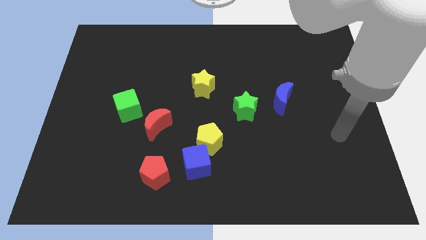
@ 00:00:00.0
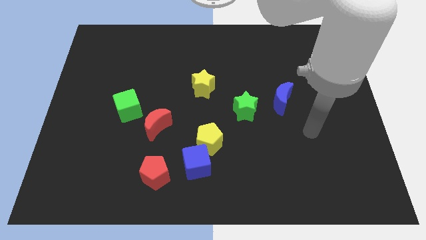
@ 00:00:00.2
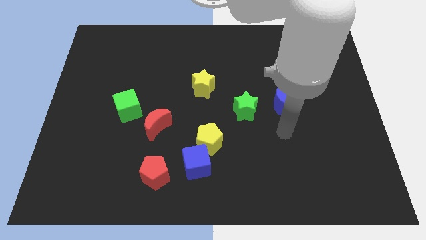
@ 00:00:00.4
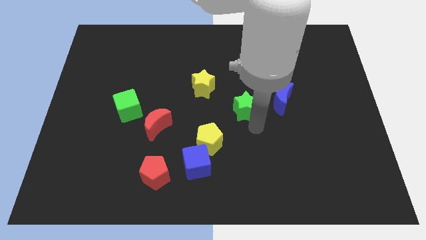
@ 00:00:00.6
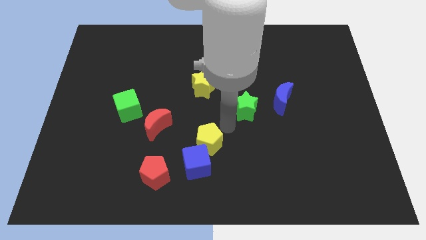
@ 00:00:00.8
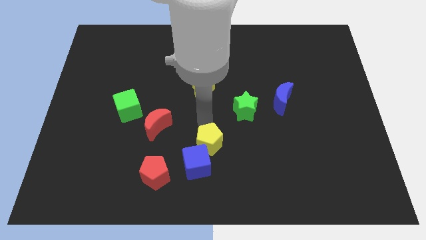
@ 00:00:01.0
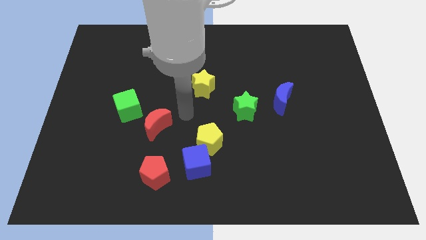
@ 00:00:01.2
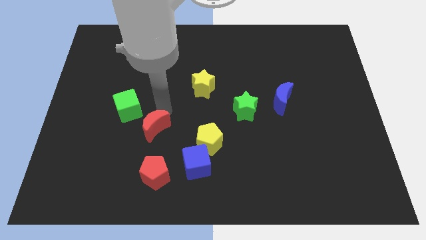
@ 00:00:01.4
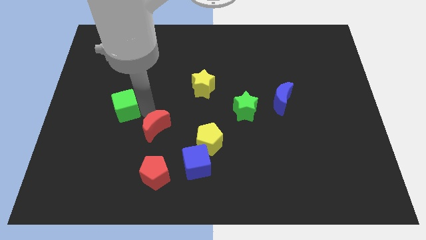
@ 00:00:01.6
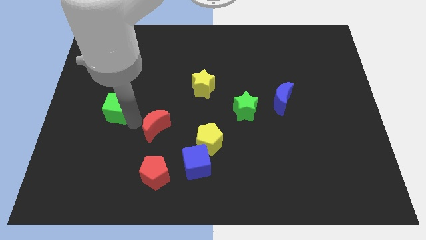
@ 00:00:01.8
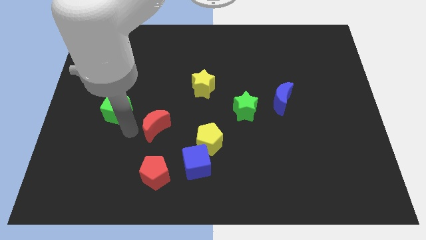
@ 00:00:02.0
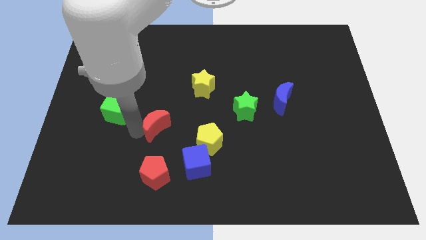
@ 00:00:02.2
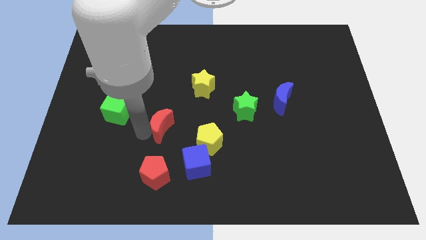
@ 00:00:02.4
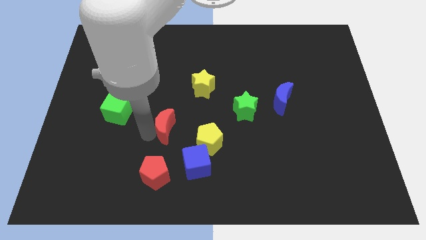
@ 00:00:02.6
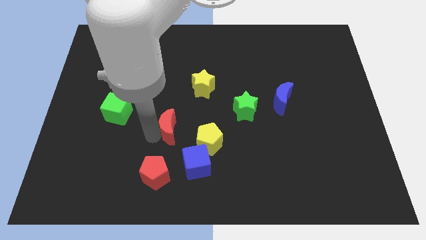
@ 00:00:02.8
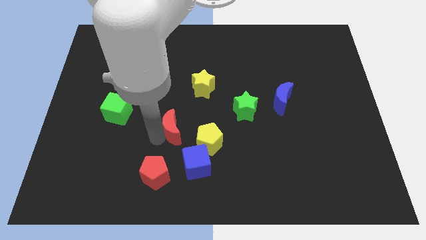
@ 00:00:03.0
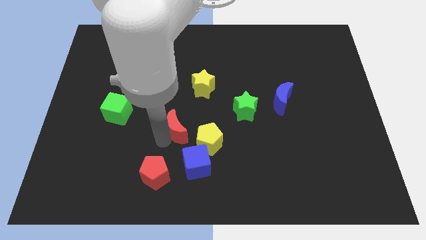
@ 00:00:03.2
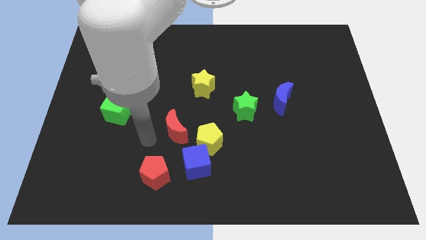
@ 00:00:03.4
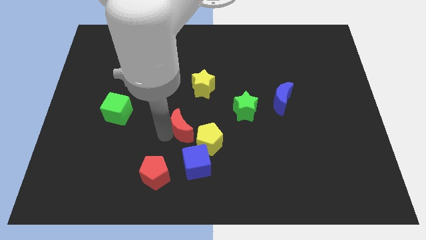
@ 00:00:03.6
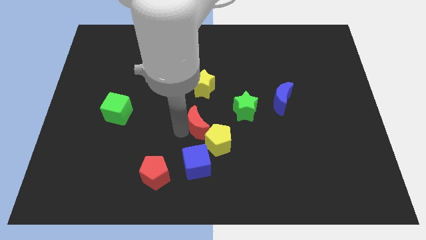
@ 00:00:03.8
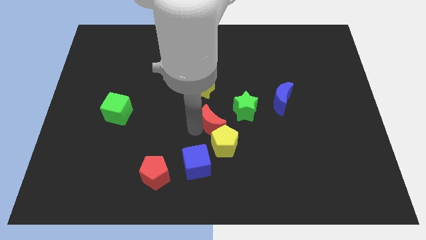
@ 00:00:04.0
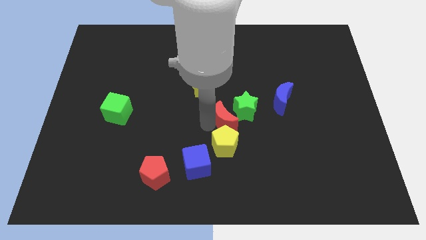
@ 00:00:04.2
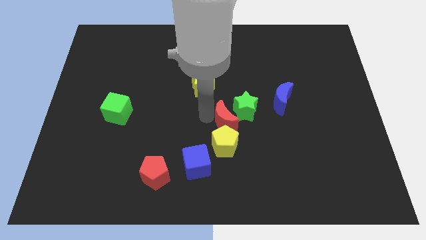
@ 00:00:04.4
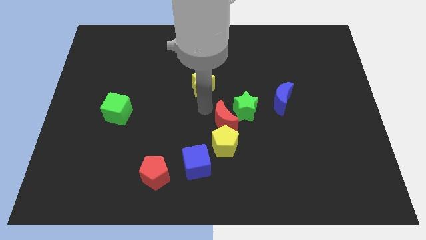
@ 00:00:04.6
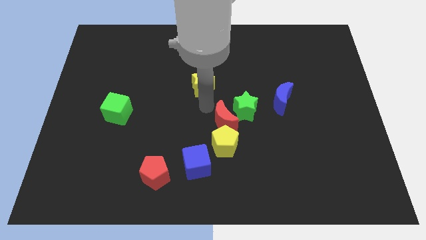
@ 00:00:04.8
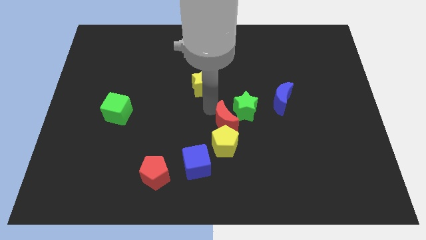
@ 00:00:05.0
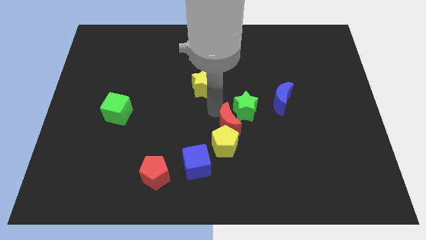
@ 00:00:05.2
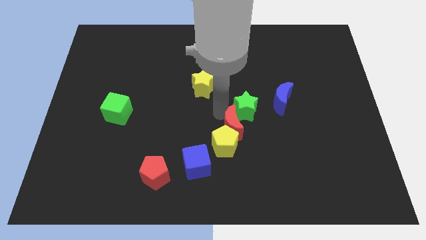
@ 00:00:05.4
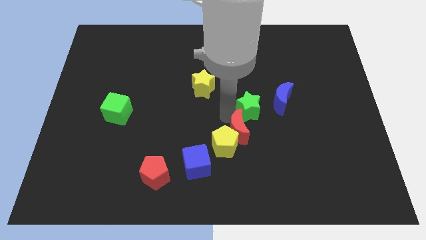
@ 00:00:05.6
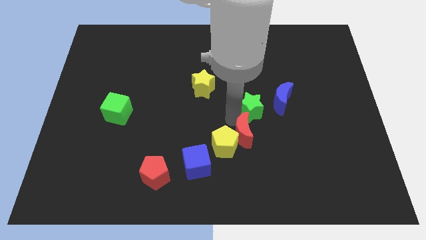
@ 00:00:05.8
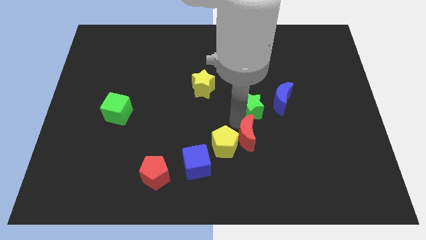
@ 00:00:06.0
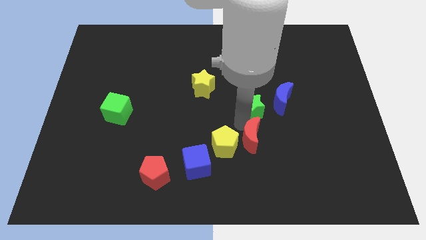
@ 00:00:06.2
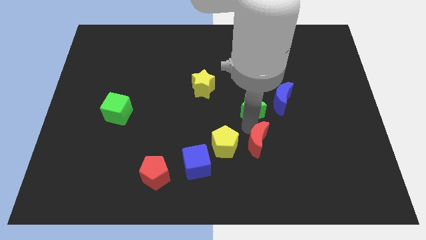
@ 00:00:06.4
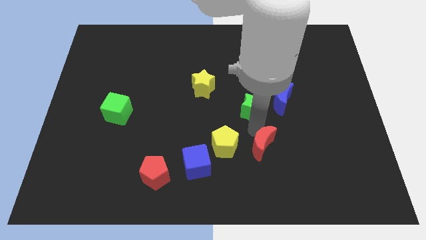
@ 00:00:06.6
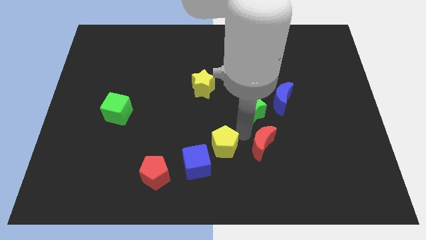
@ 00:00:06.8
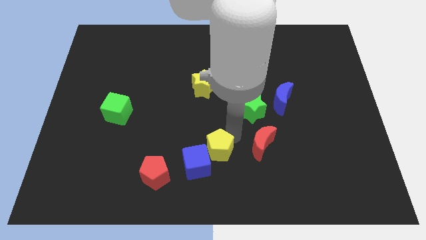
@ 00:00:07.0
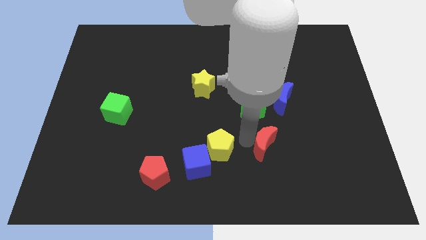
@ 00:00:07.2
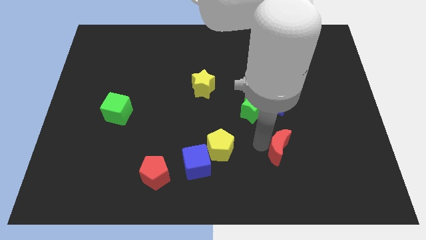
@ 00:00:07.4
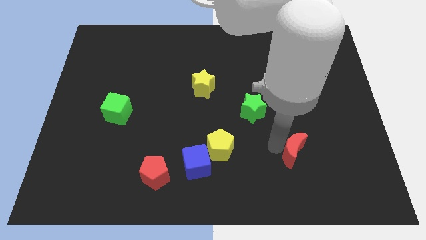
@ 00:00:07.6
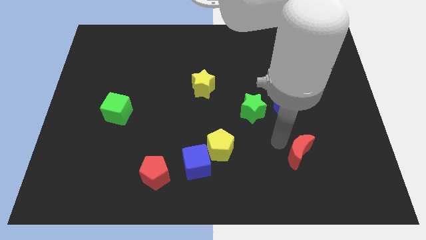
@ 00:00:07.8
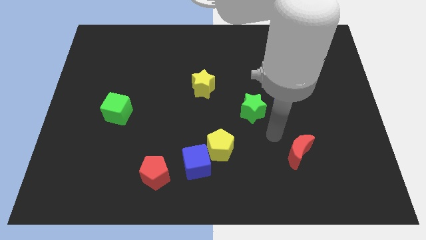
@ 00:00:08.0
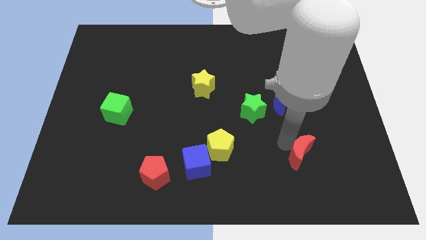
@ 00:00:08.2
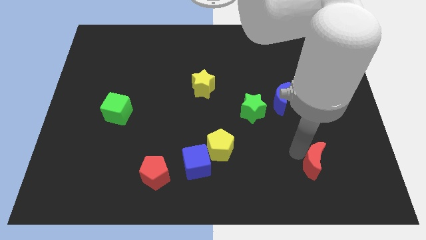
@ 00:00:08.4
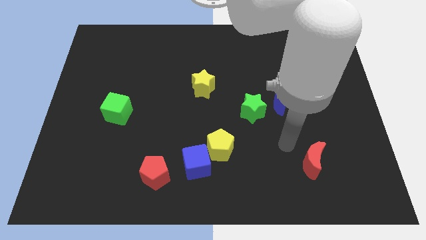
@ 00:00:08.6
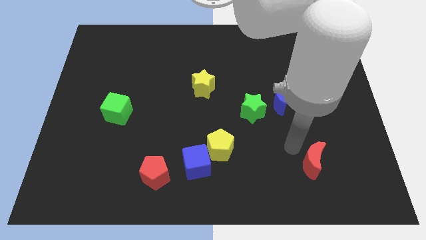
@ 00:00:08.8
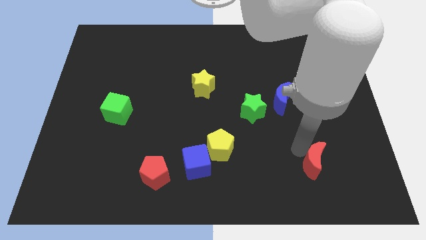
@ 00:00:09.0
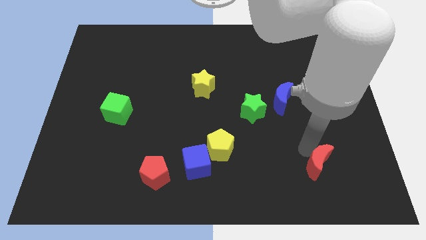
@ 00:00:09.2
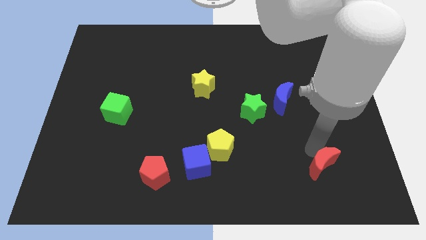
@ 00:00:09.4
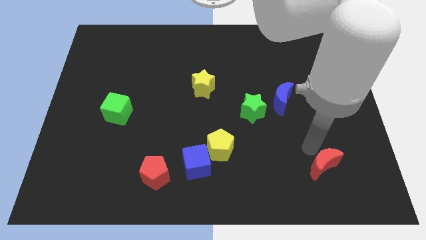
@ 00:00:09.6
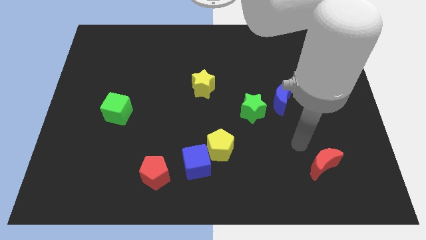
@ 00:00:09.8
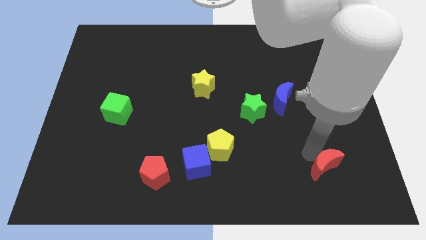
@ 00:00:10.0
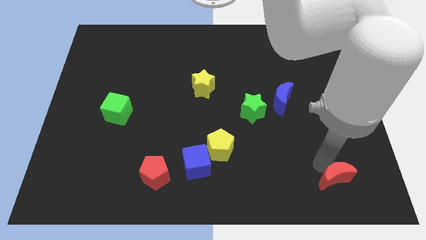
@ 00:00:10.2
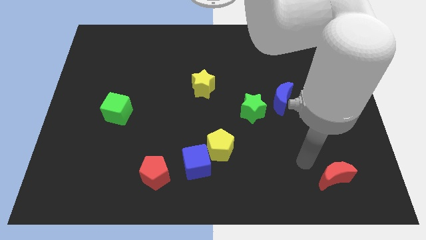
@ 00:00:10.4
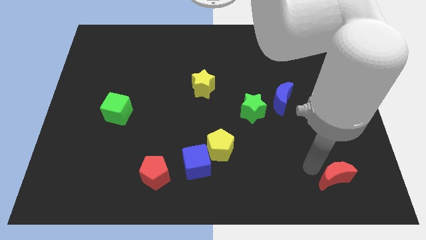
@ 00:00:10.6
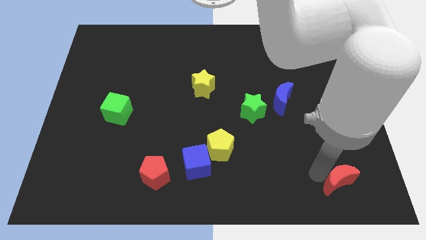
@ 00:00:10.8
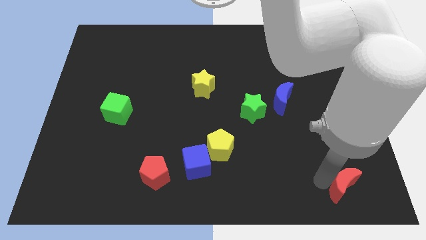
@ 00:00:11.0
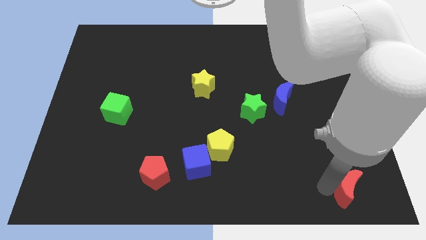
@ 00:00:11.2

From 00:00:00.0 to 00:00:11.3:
slide the red moon to the bottom right of the board
